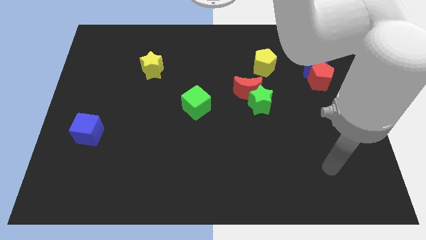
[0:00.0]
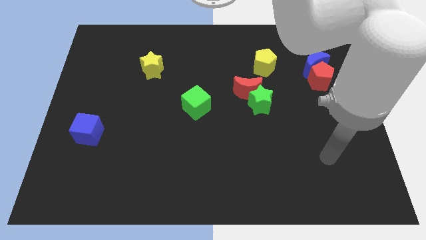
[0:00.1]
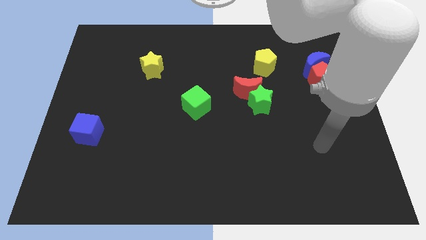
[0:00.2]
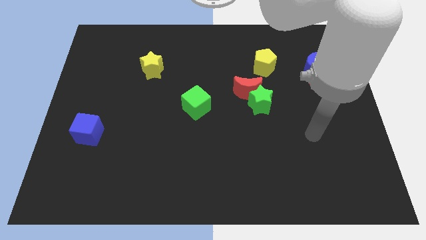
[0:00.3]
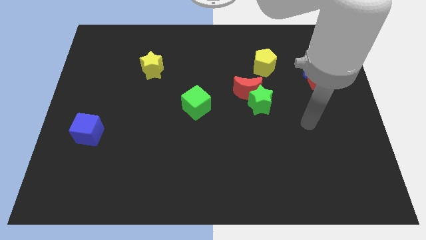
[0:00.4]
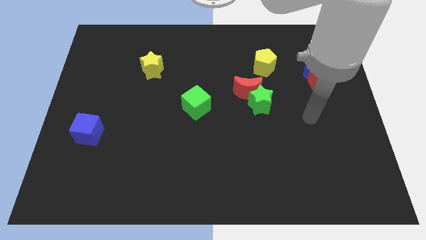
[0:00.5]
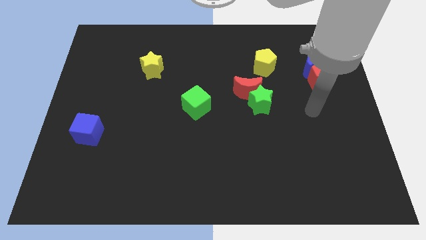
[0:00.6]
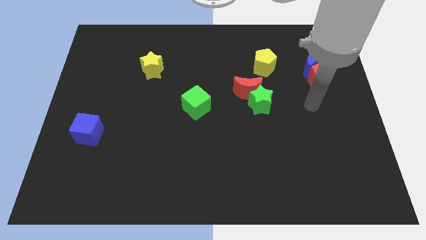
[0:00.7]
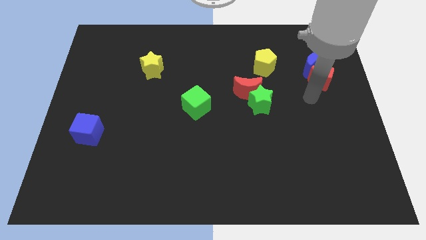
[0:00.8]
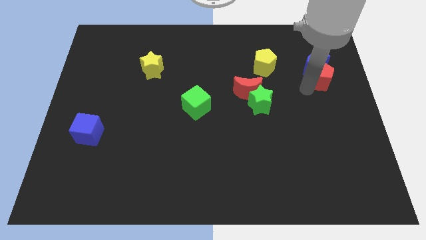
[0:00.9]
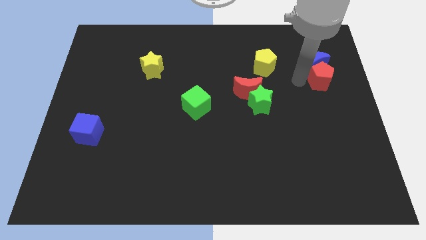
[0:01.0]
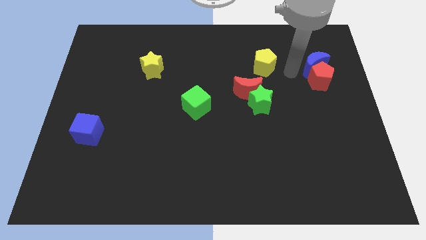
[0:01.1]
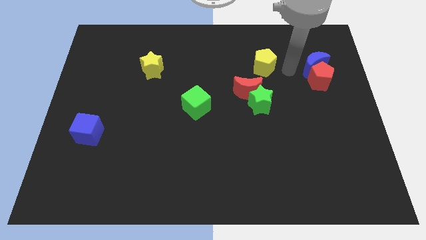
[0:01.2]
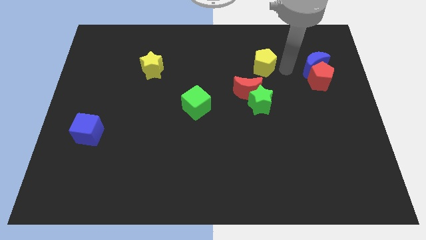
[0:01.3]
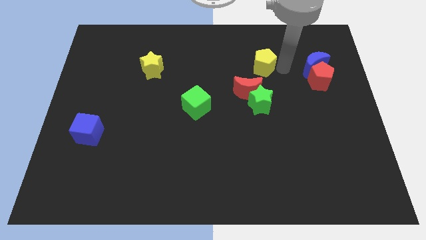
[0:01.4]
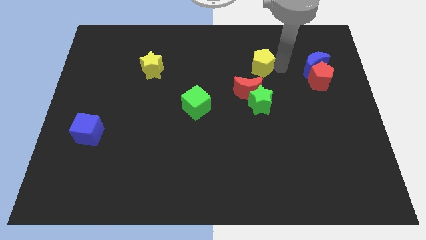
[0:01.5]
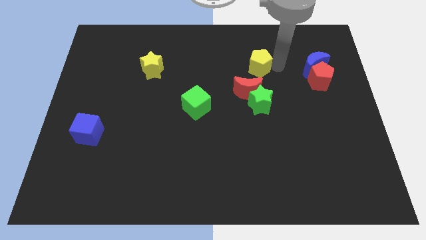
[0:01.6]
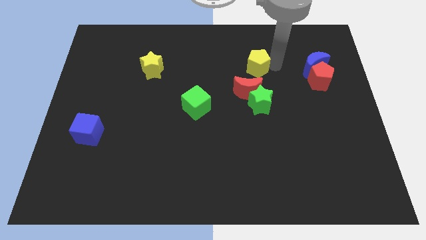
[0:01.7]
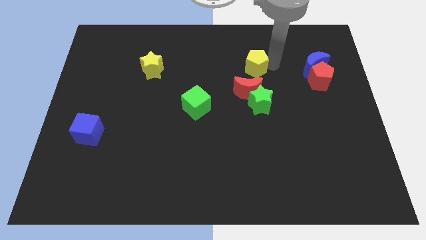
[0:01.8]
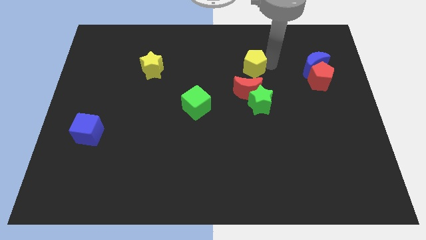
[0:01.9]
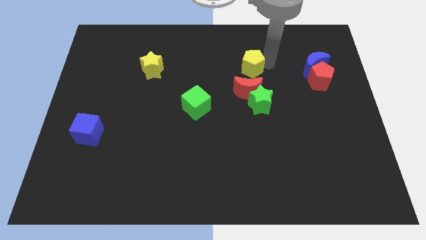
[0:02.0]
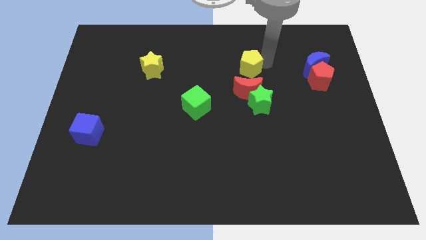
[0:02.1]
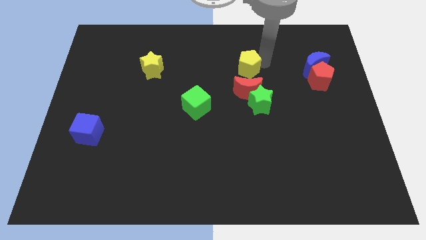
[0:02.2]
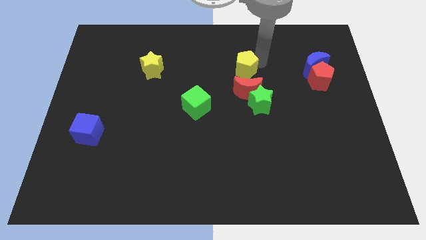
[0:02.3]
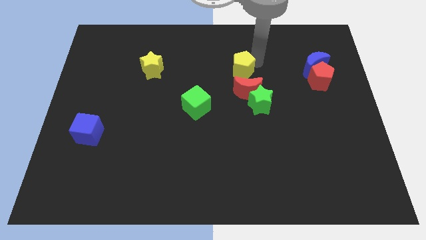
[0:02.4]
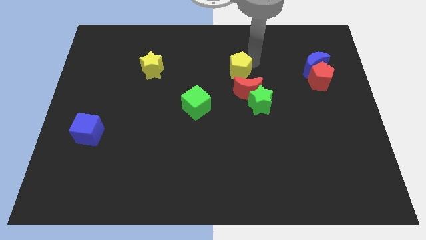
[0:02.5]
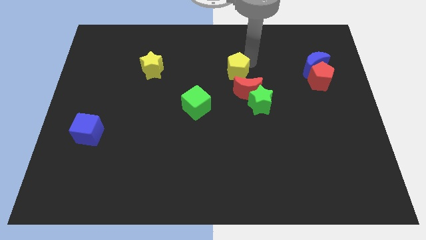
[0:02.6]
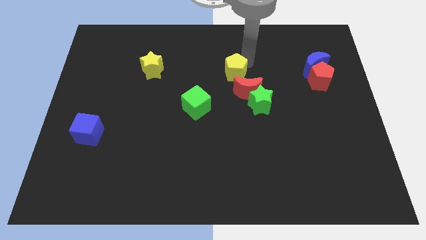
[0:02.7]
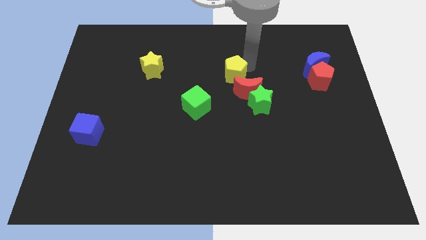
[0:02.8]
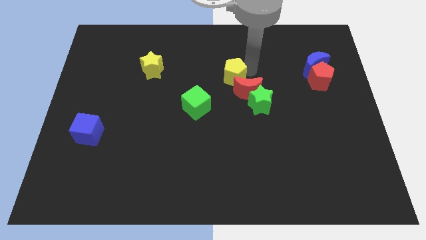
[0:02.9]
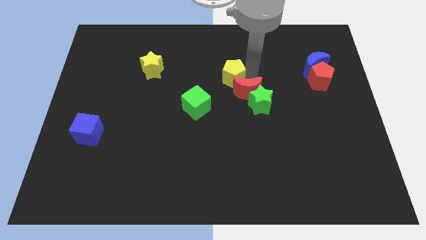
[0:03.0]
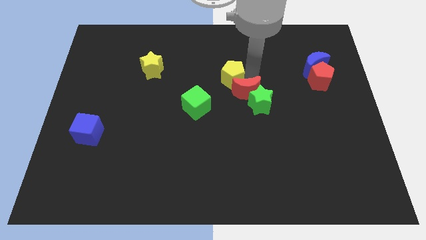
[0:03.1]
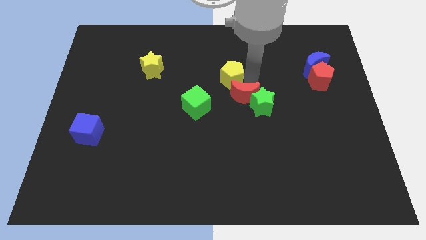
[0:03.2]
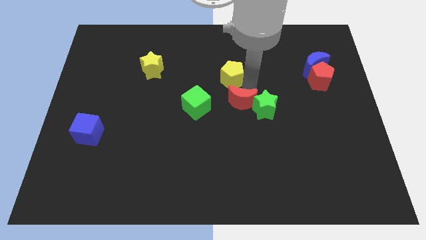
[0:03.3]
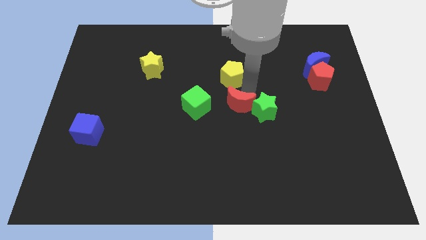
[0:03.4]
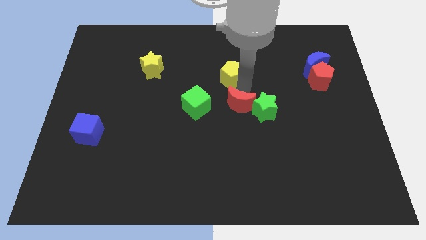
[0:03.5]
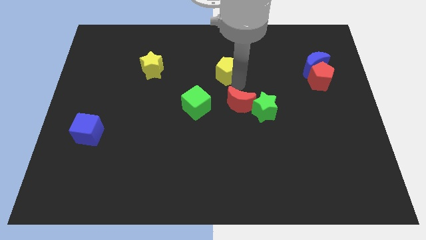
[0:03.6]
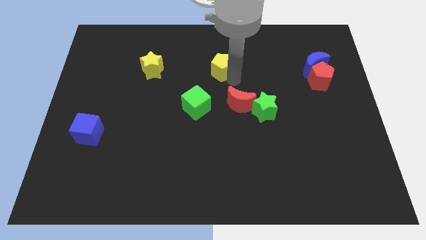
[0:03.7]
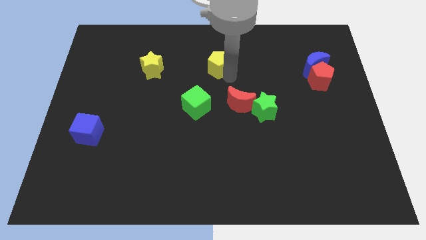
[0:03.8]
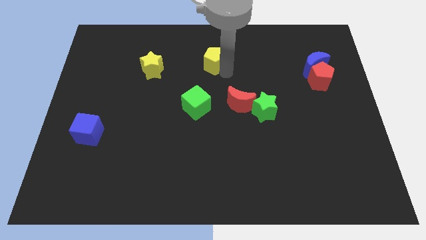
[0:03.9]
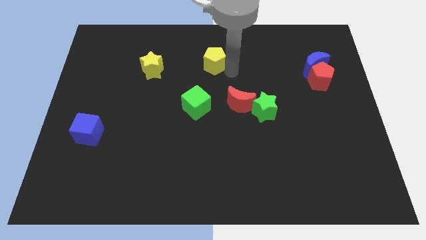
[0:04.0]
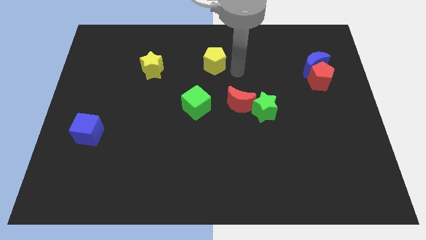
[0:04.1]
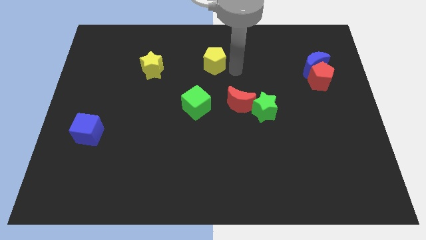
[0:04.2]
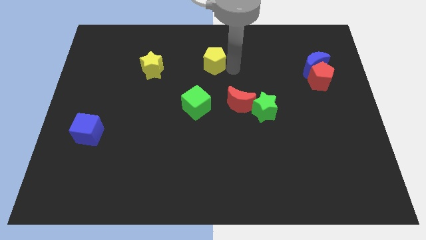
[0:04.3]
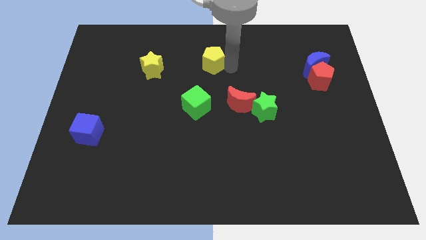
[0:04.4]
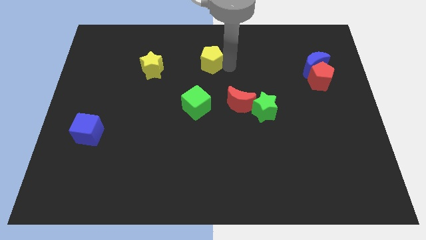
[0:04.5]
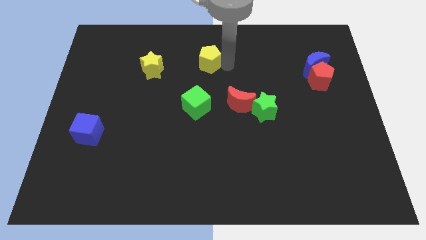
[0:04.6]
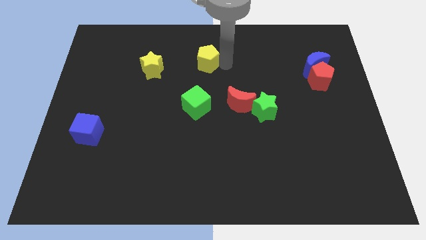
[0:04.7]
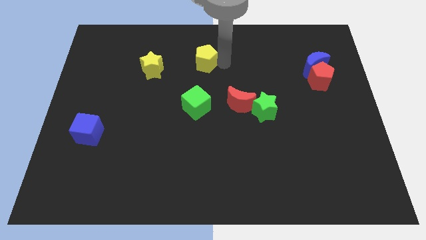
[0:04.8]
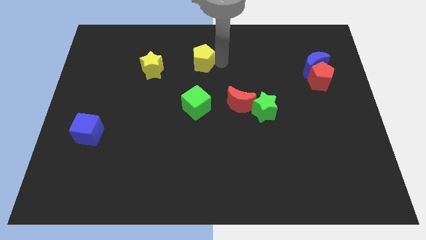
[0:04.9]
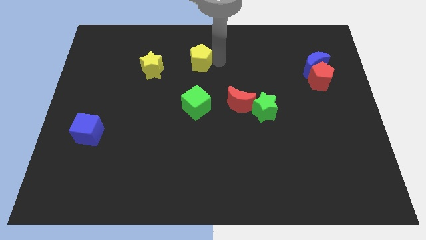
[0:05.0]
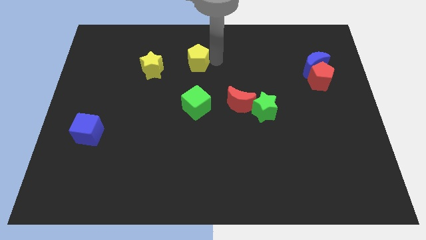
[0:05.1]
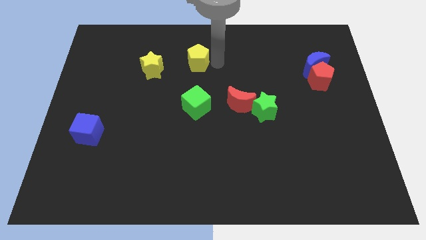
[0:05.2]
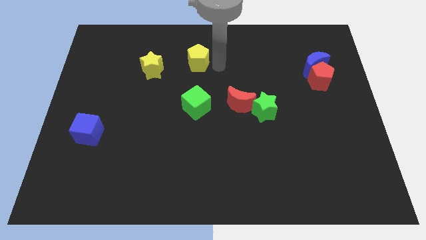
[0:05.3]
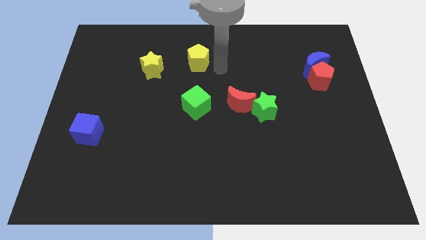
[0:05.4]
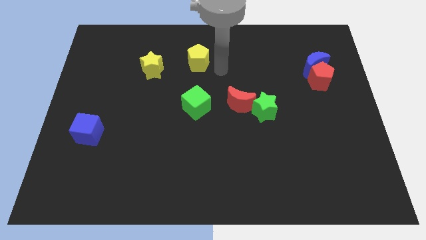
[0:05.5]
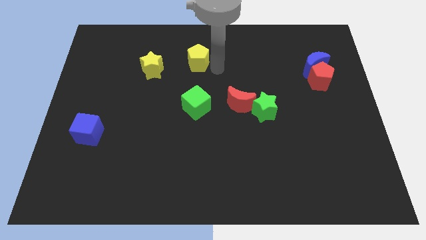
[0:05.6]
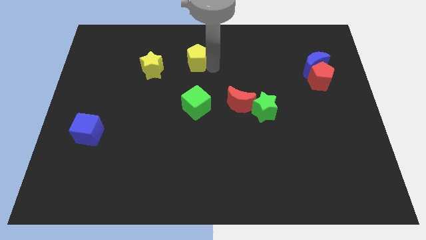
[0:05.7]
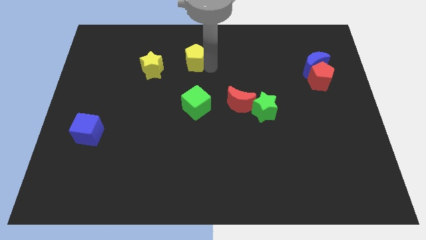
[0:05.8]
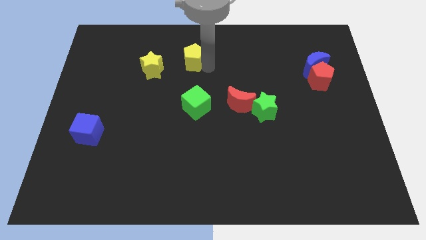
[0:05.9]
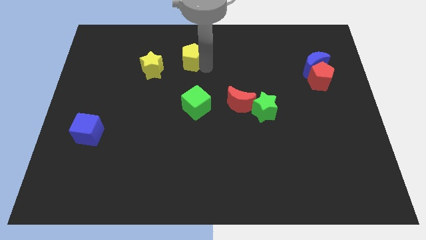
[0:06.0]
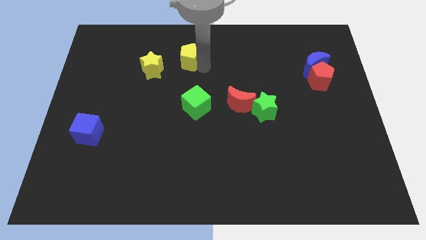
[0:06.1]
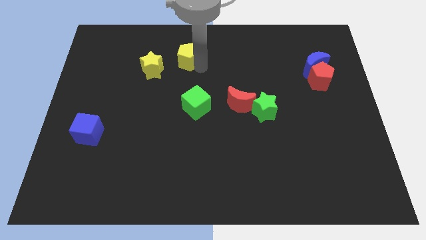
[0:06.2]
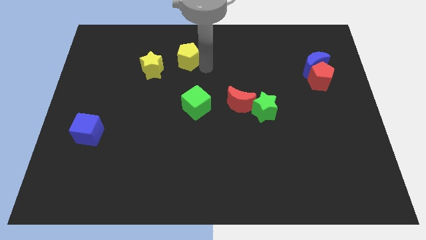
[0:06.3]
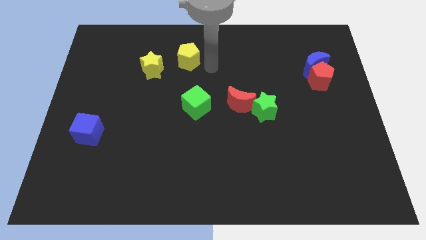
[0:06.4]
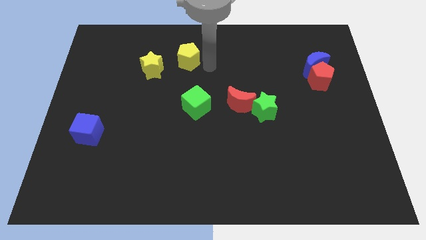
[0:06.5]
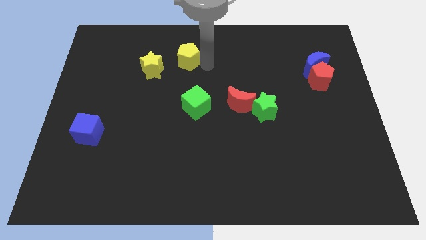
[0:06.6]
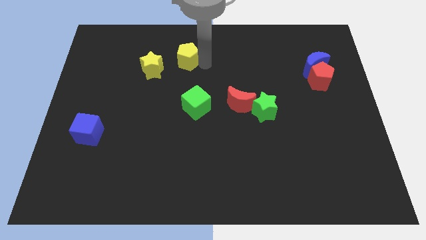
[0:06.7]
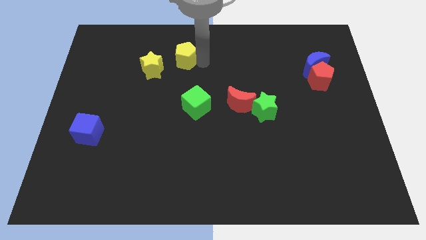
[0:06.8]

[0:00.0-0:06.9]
push the yellow pentagon left

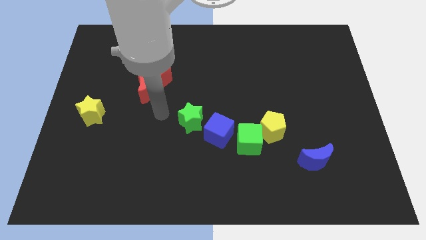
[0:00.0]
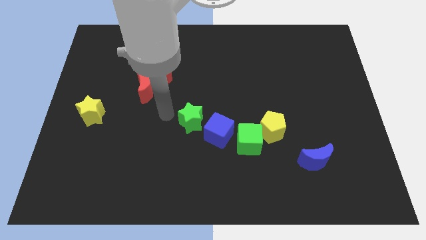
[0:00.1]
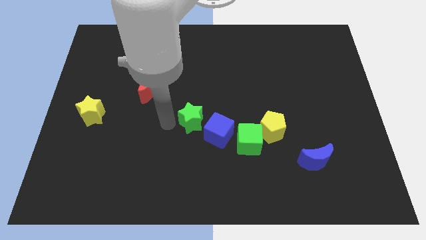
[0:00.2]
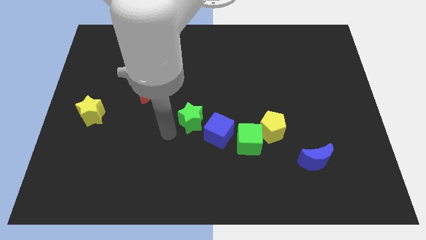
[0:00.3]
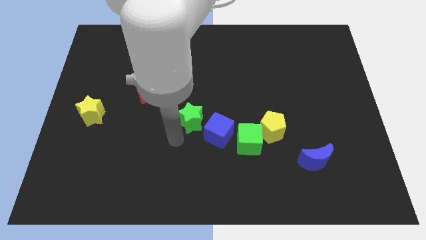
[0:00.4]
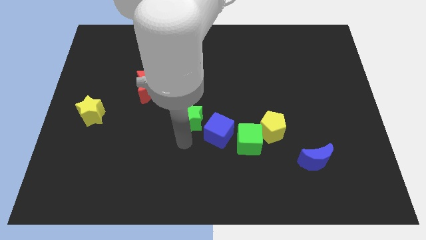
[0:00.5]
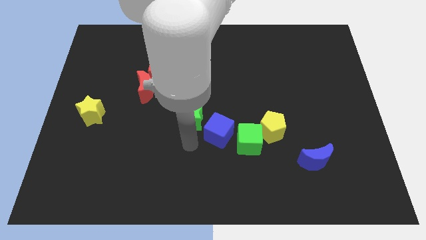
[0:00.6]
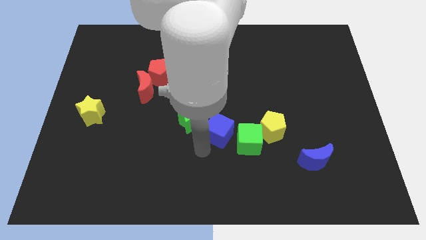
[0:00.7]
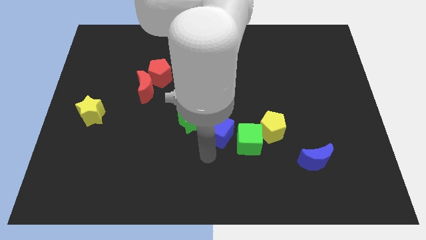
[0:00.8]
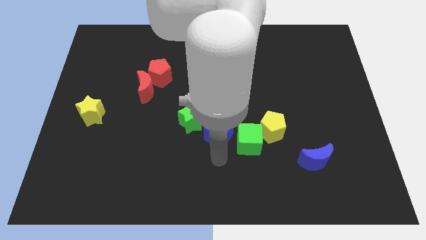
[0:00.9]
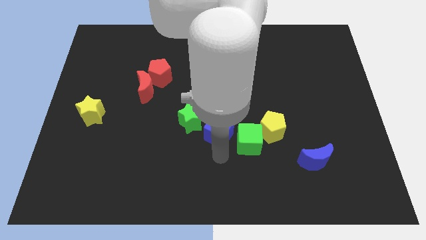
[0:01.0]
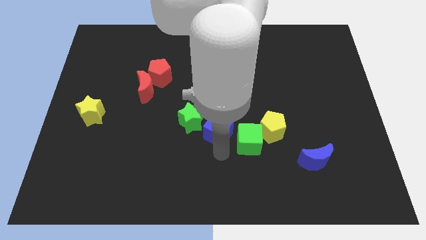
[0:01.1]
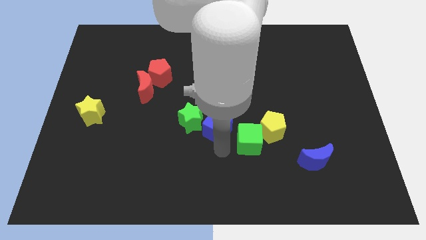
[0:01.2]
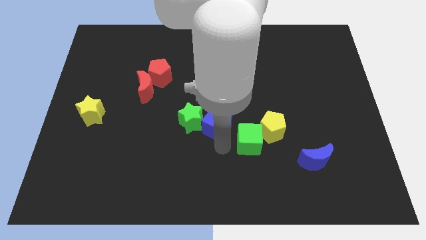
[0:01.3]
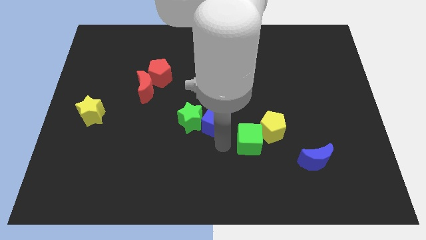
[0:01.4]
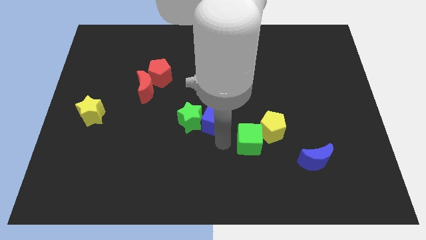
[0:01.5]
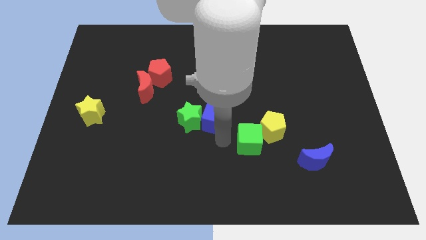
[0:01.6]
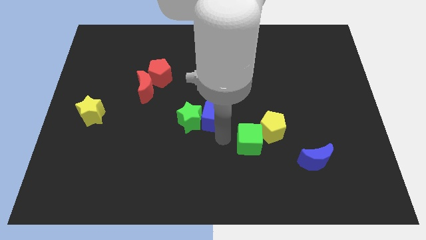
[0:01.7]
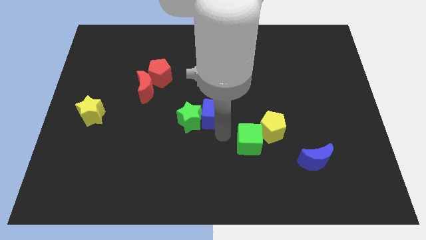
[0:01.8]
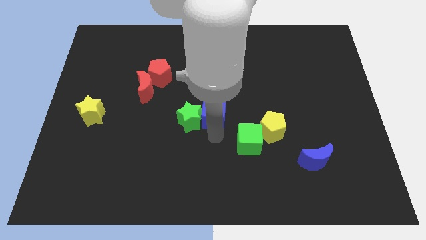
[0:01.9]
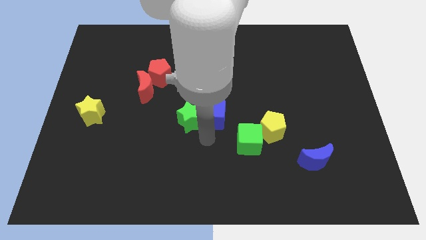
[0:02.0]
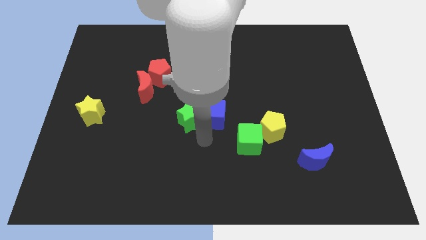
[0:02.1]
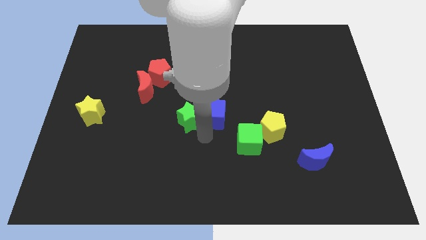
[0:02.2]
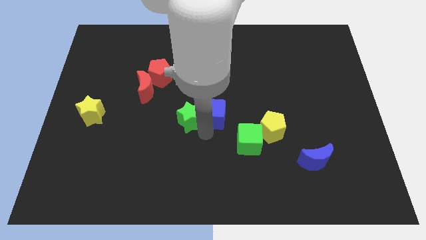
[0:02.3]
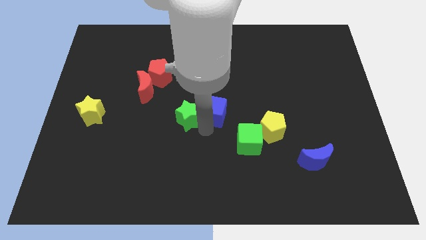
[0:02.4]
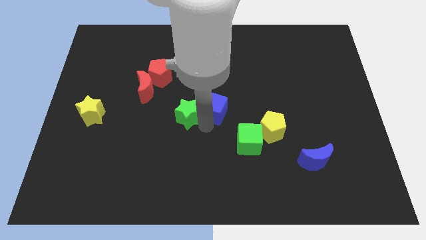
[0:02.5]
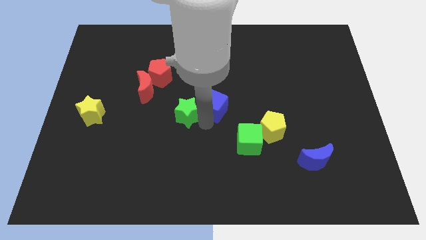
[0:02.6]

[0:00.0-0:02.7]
move the blue cube up somewhat
